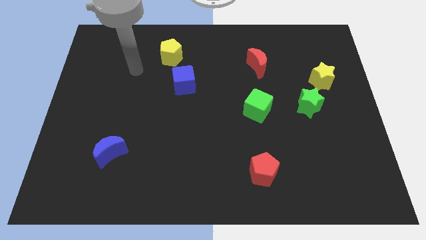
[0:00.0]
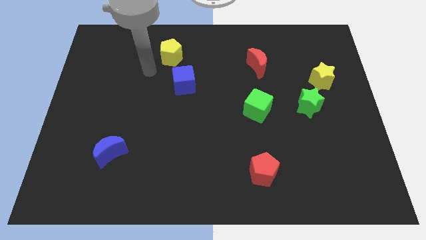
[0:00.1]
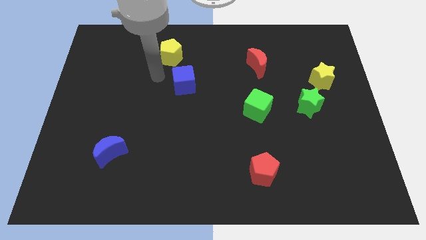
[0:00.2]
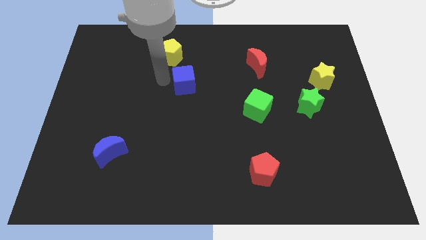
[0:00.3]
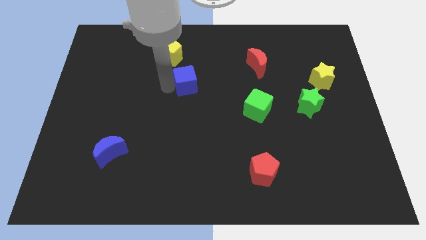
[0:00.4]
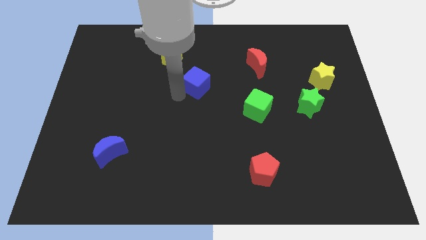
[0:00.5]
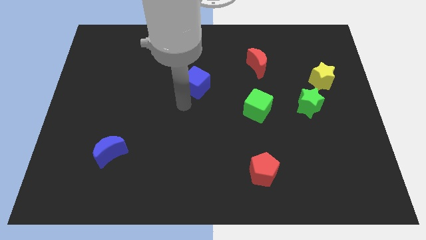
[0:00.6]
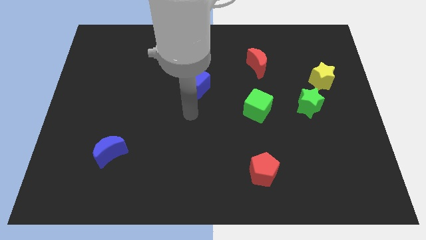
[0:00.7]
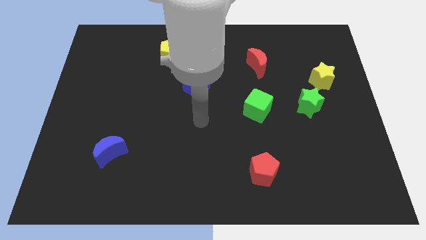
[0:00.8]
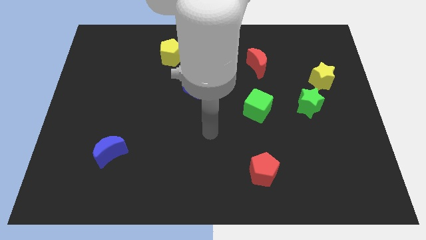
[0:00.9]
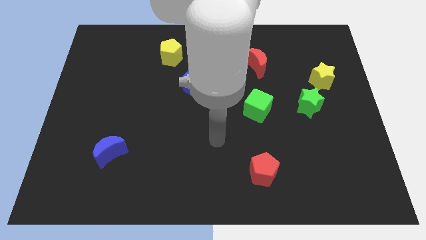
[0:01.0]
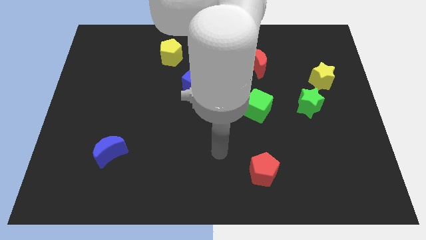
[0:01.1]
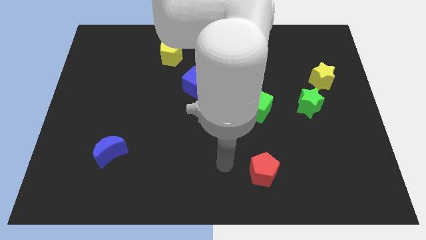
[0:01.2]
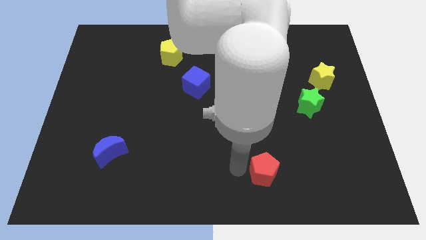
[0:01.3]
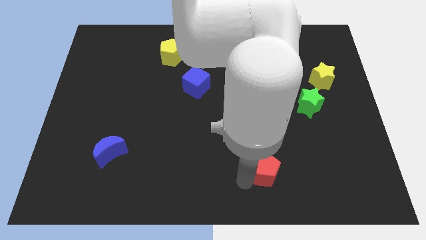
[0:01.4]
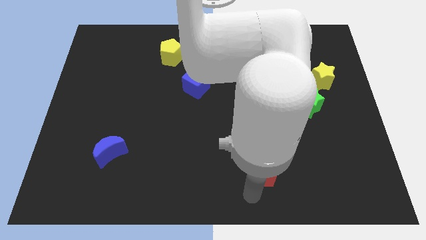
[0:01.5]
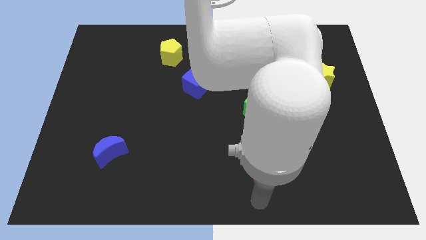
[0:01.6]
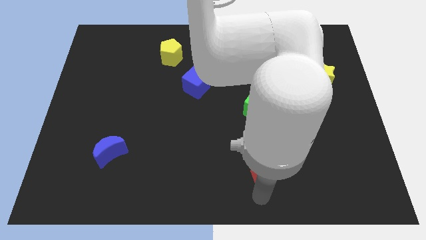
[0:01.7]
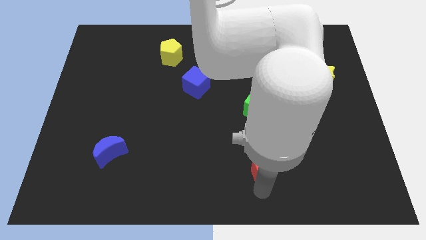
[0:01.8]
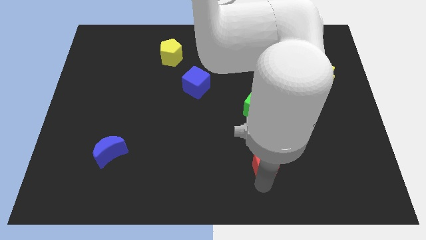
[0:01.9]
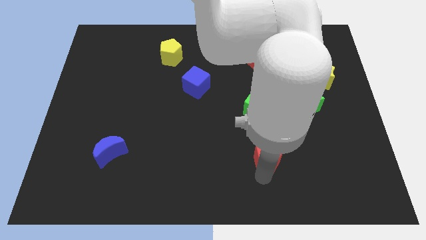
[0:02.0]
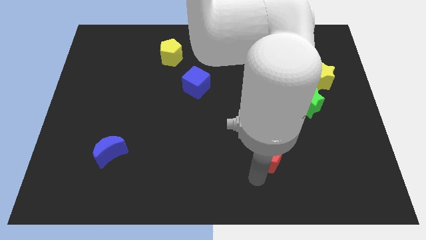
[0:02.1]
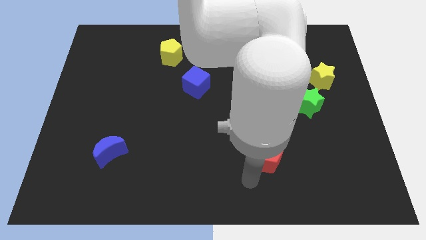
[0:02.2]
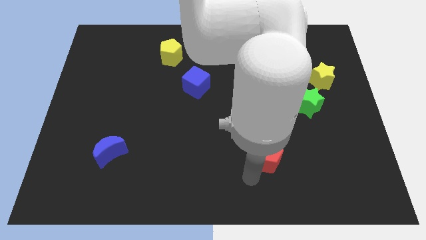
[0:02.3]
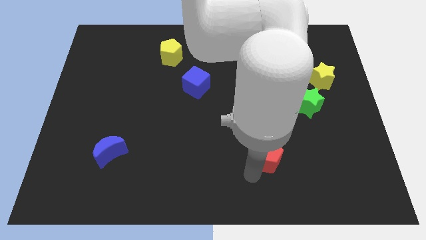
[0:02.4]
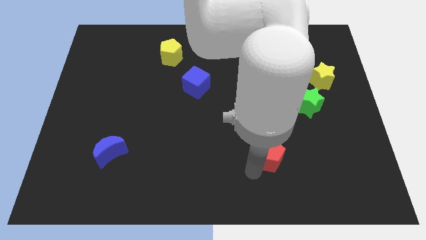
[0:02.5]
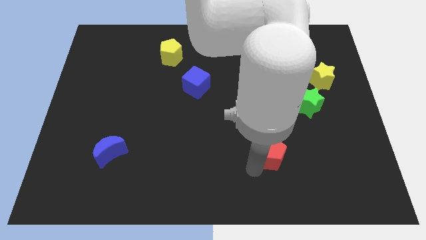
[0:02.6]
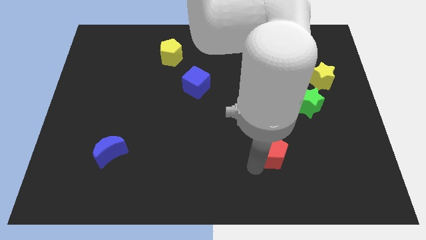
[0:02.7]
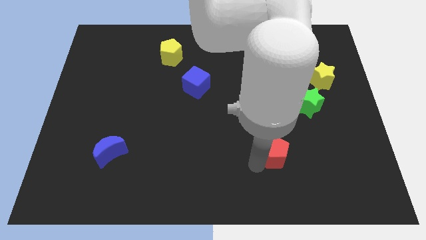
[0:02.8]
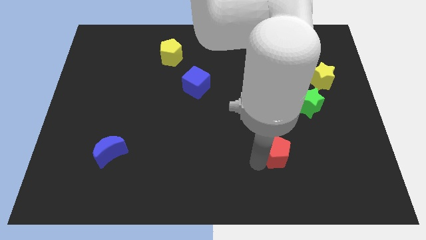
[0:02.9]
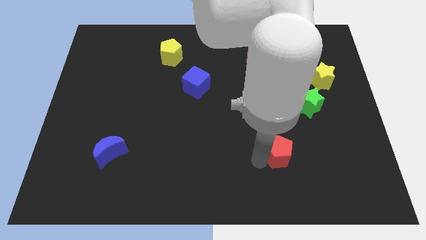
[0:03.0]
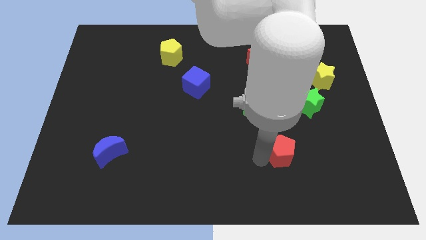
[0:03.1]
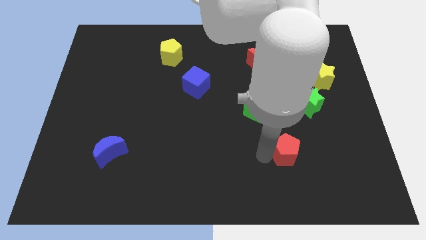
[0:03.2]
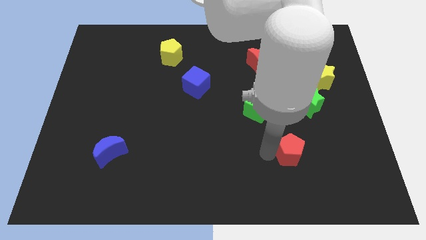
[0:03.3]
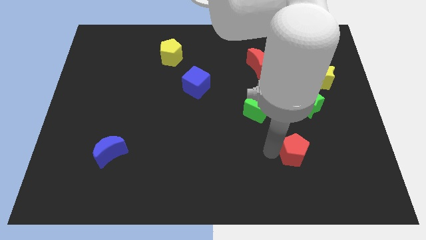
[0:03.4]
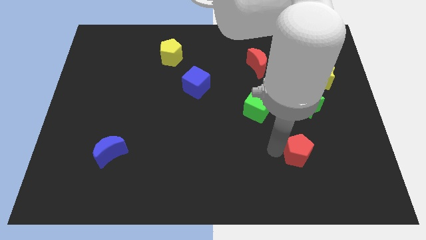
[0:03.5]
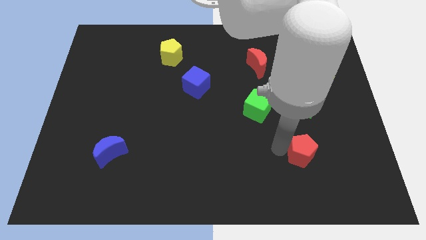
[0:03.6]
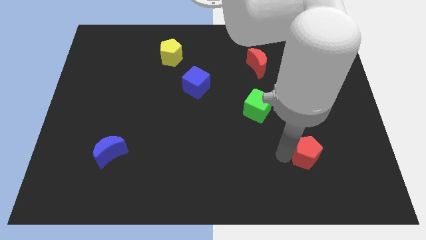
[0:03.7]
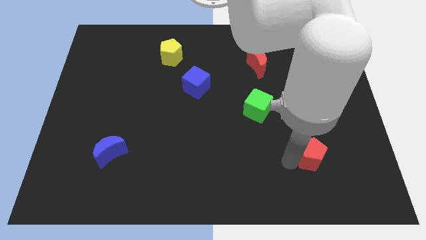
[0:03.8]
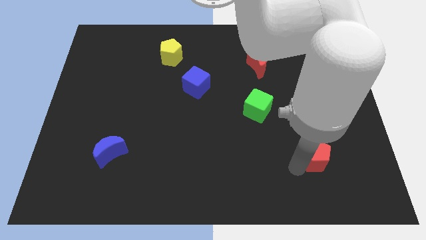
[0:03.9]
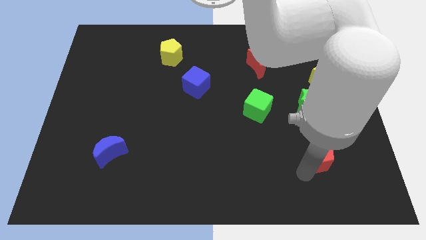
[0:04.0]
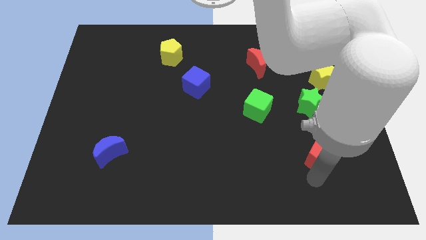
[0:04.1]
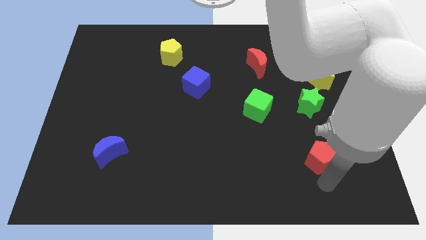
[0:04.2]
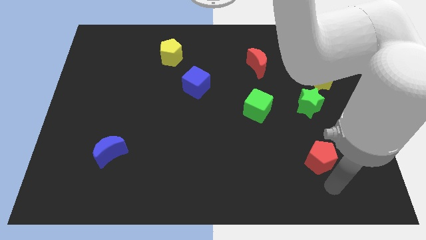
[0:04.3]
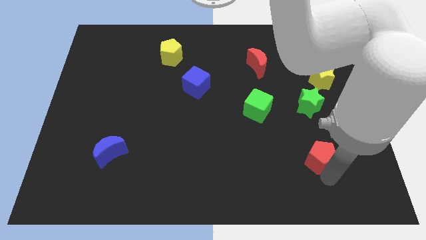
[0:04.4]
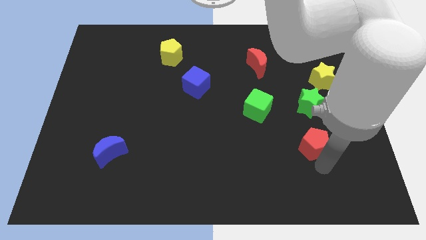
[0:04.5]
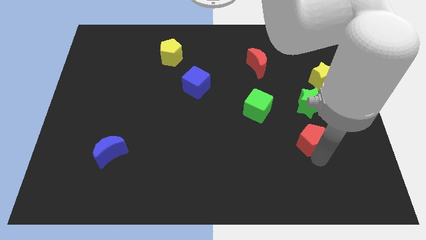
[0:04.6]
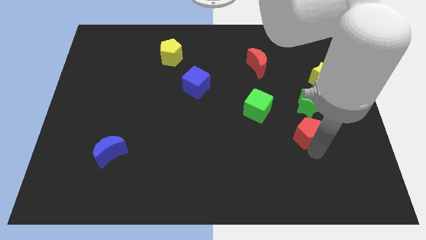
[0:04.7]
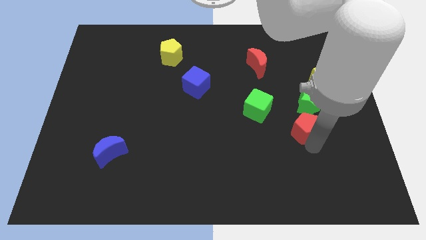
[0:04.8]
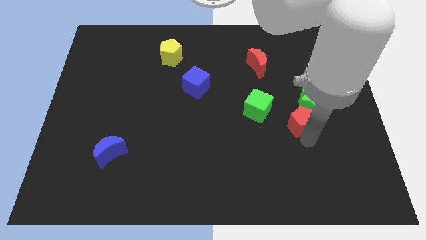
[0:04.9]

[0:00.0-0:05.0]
push the red pentagon next to the green star

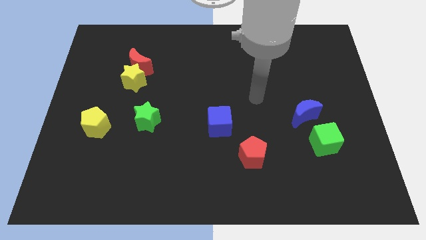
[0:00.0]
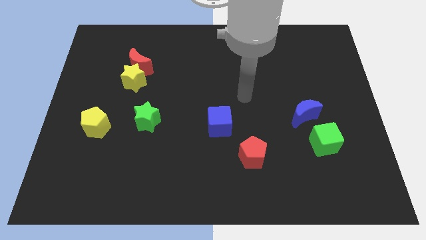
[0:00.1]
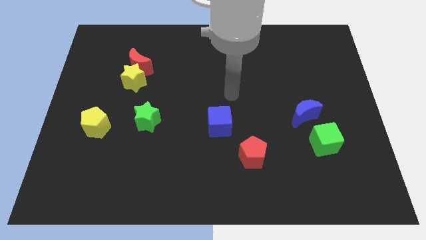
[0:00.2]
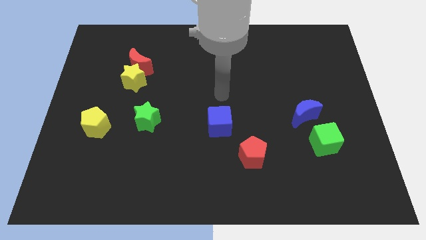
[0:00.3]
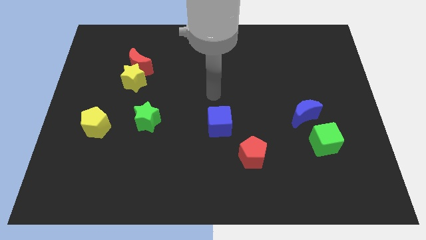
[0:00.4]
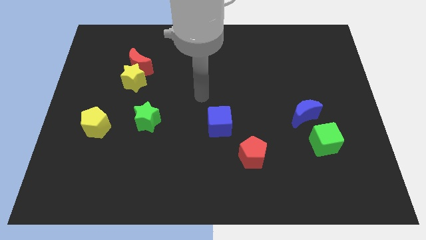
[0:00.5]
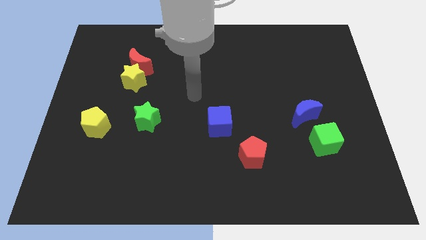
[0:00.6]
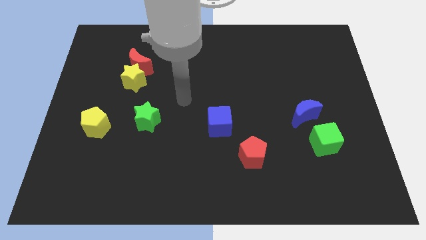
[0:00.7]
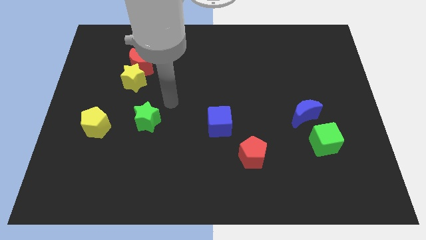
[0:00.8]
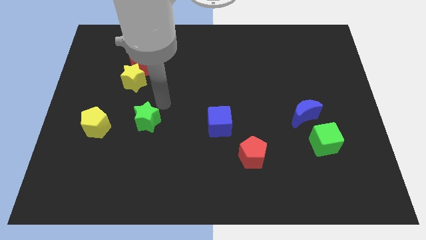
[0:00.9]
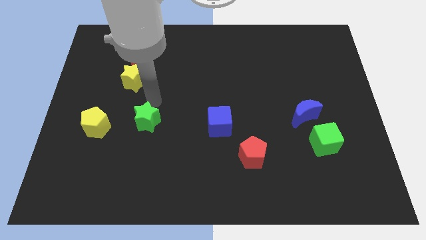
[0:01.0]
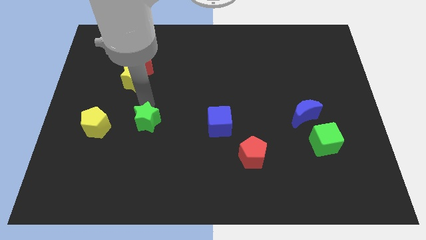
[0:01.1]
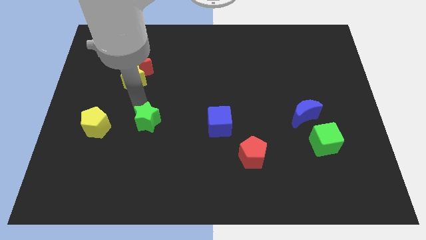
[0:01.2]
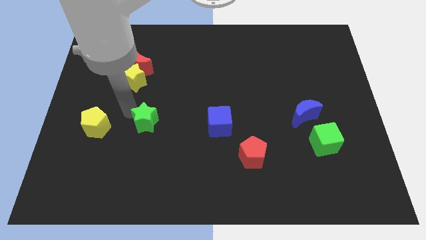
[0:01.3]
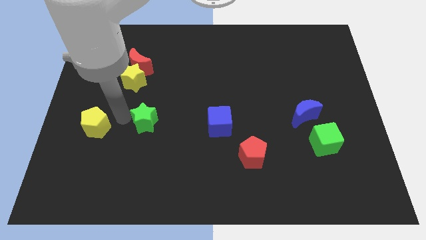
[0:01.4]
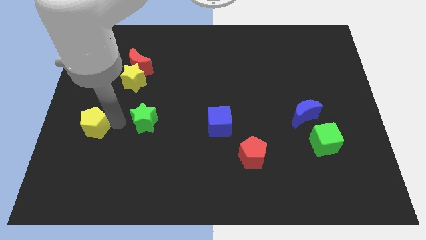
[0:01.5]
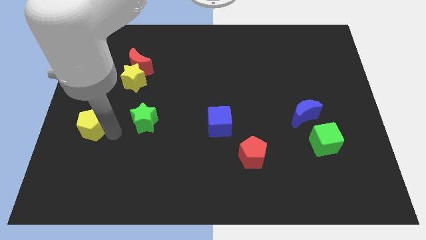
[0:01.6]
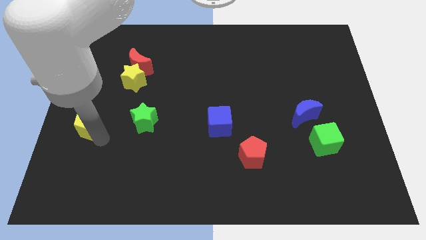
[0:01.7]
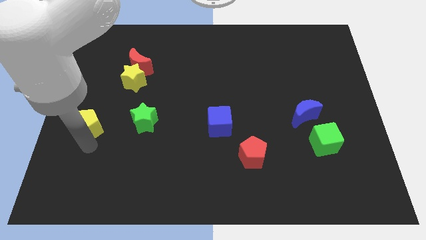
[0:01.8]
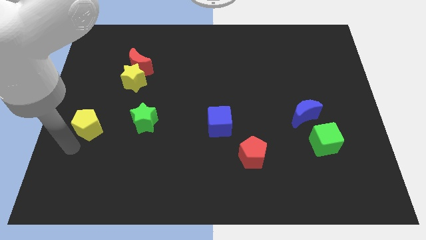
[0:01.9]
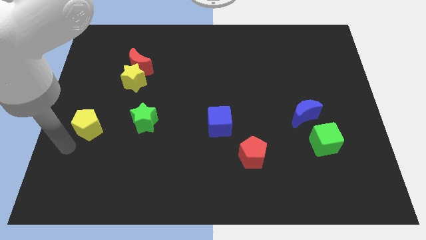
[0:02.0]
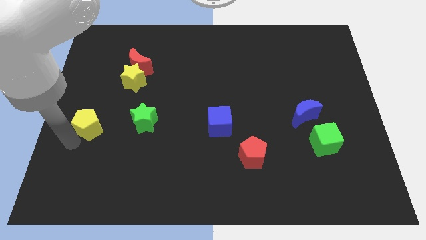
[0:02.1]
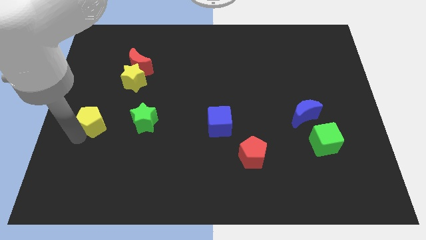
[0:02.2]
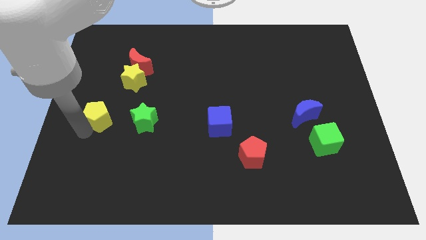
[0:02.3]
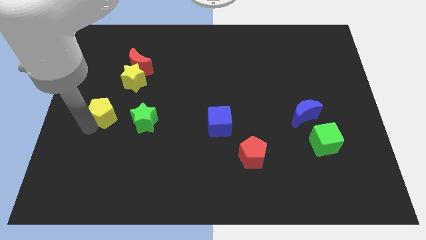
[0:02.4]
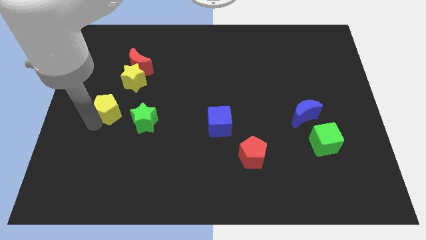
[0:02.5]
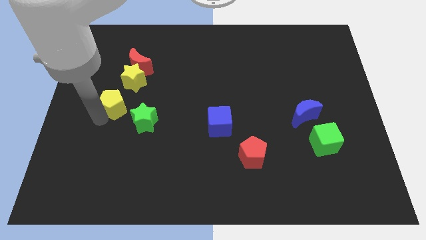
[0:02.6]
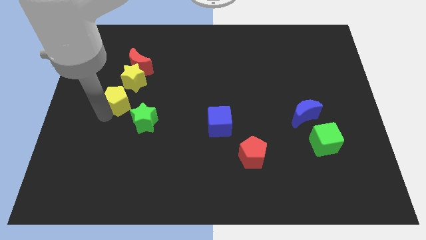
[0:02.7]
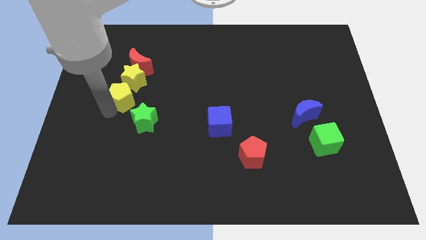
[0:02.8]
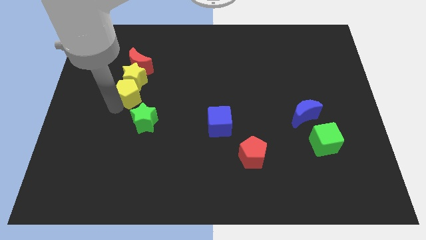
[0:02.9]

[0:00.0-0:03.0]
push the yellow pentagon towards the yellow star
